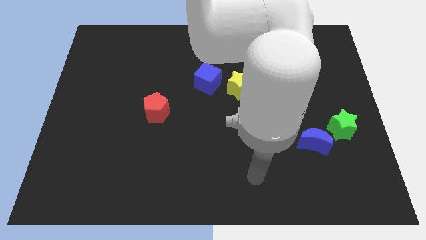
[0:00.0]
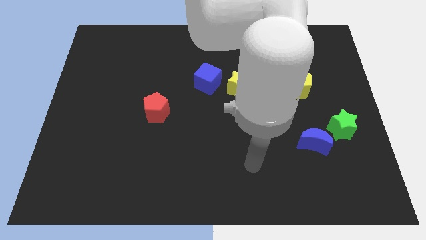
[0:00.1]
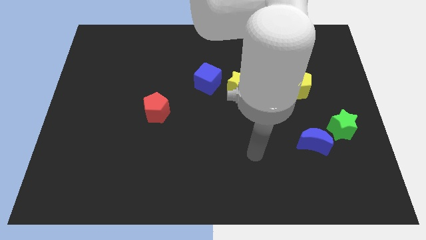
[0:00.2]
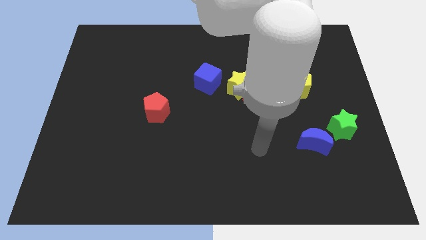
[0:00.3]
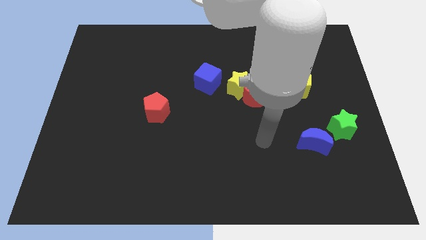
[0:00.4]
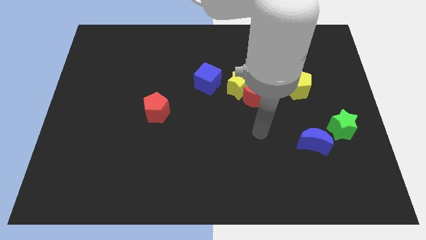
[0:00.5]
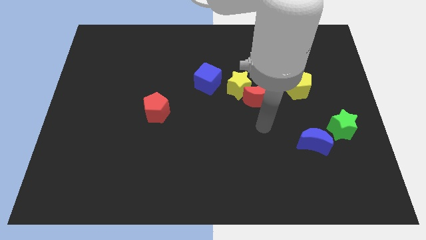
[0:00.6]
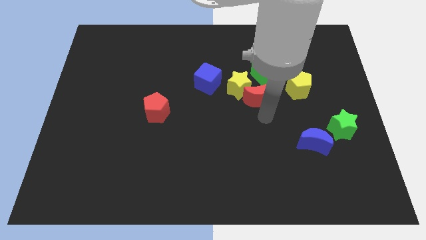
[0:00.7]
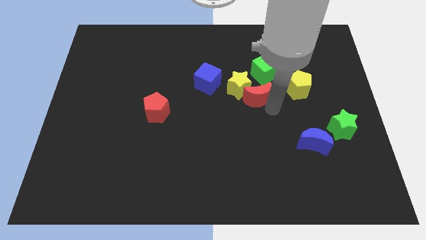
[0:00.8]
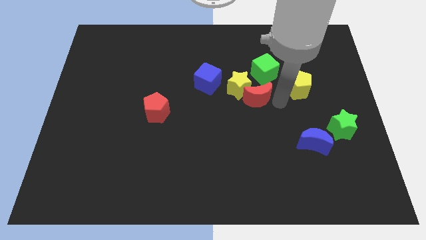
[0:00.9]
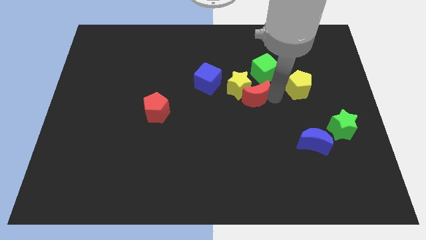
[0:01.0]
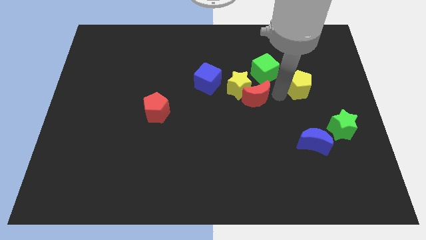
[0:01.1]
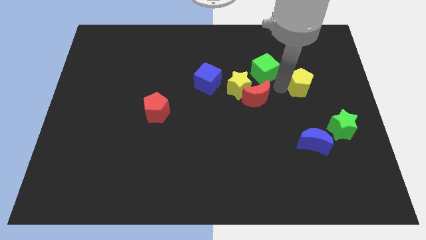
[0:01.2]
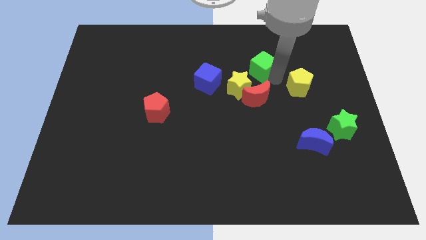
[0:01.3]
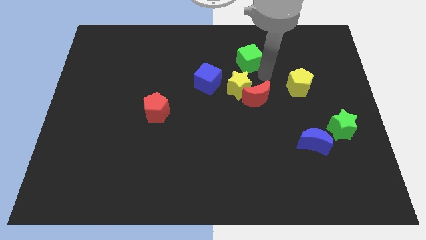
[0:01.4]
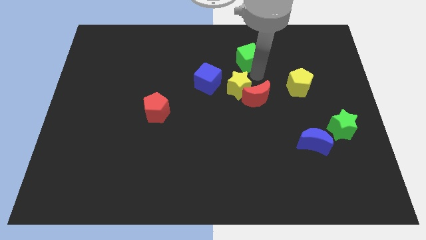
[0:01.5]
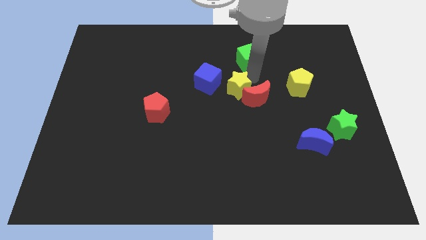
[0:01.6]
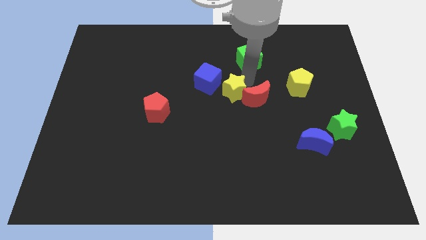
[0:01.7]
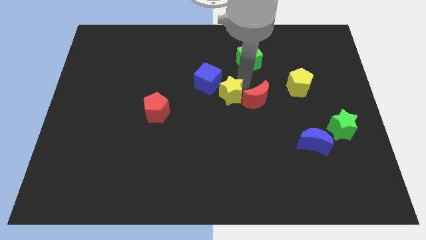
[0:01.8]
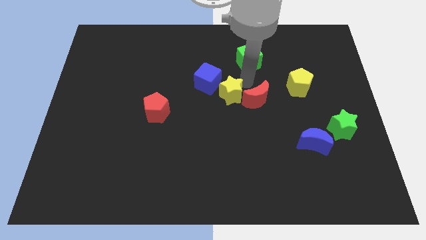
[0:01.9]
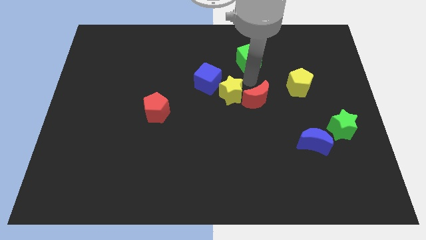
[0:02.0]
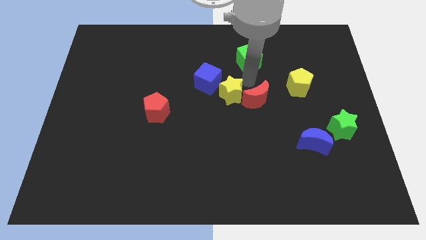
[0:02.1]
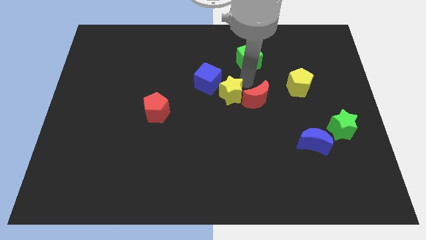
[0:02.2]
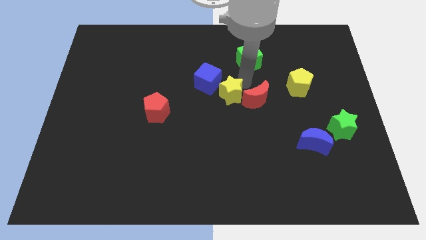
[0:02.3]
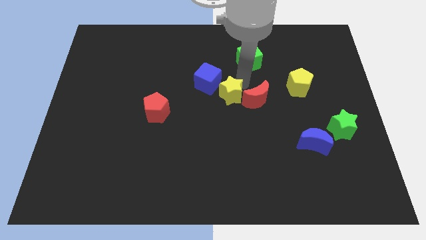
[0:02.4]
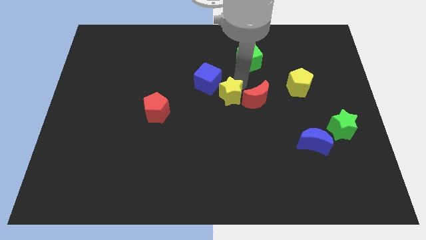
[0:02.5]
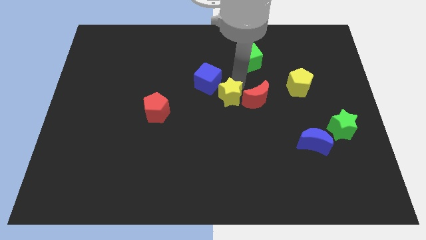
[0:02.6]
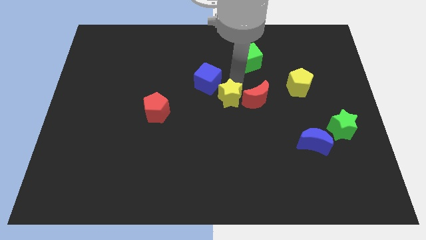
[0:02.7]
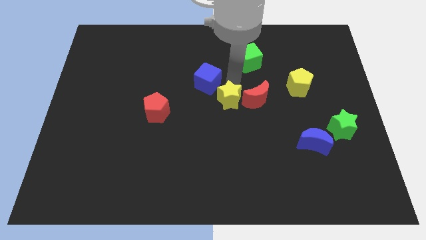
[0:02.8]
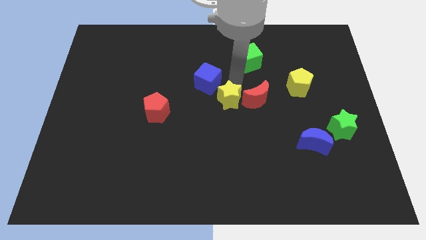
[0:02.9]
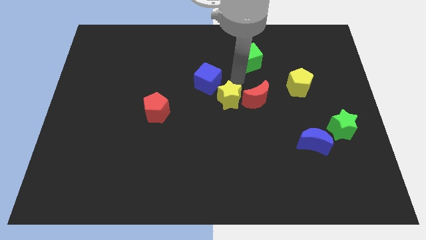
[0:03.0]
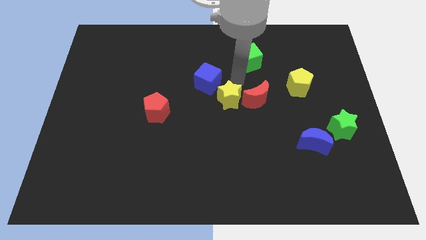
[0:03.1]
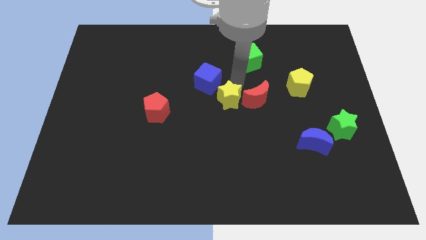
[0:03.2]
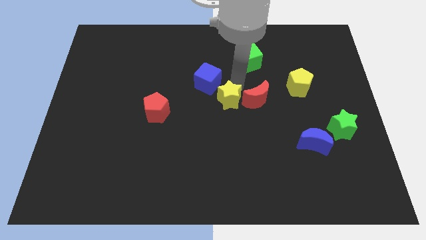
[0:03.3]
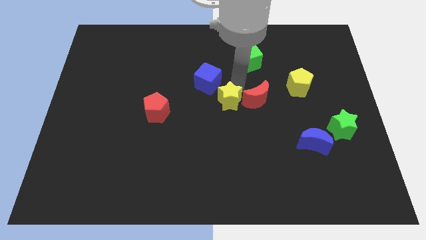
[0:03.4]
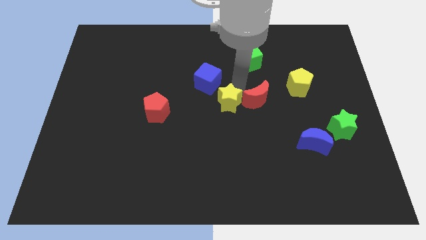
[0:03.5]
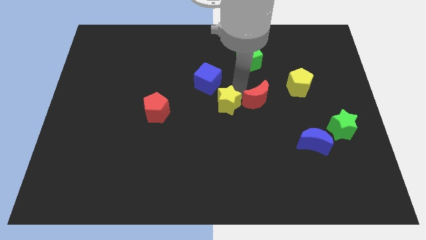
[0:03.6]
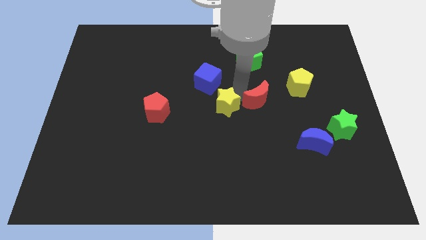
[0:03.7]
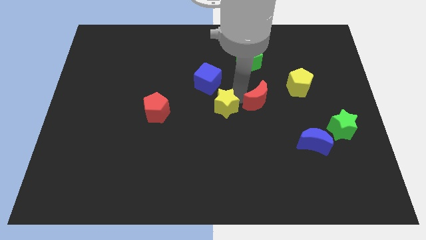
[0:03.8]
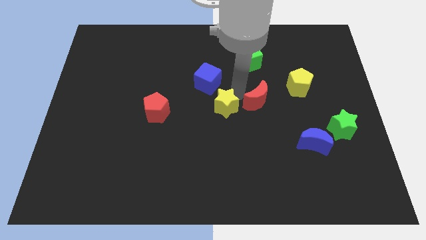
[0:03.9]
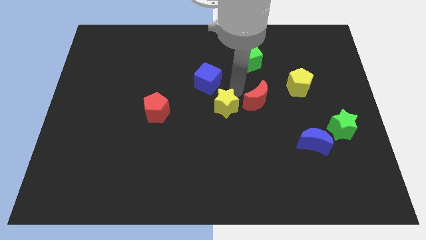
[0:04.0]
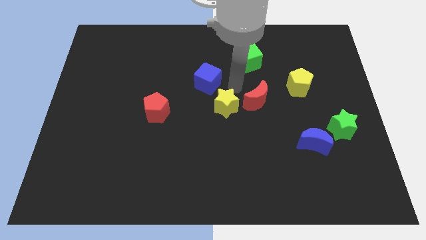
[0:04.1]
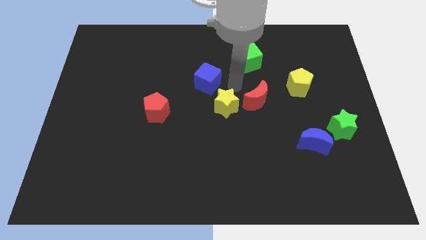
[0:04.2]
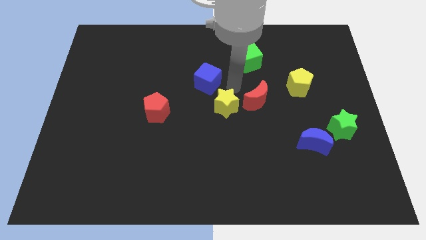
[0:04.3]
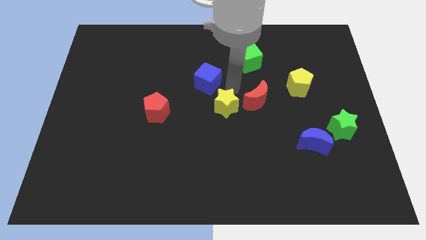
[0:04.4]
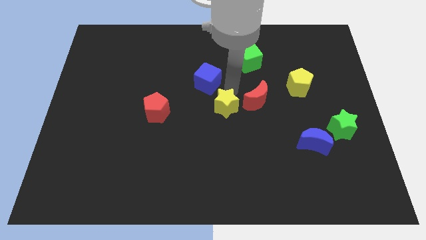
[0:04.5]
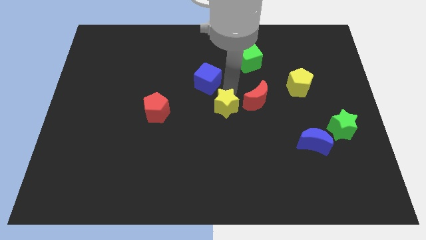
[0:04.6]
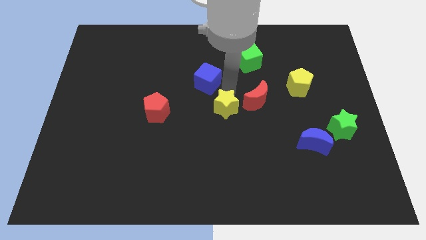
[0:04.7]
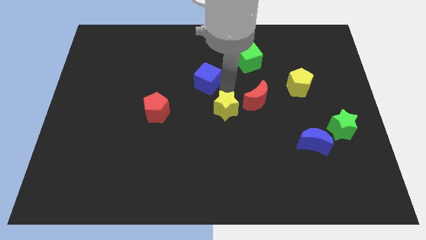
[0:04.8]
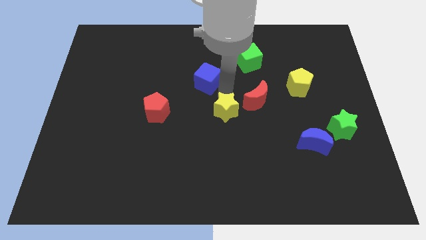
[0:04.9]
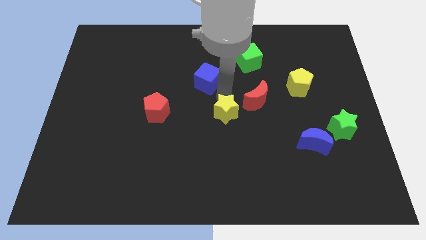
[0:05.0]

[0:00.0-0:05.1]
separate the yellow star from the red moon, blue cube, and green cube

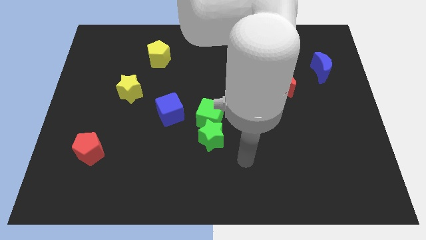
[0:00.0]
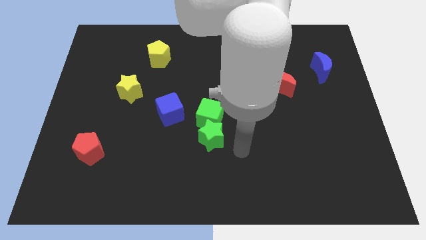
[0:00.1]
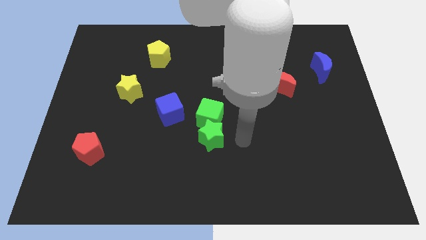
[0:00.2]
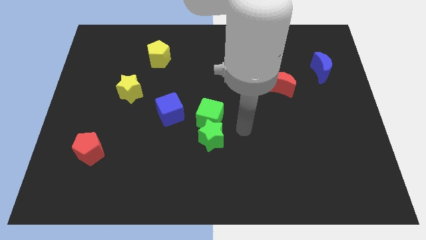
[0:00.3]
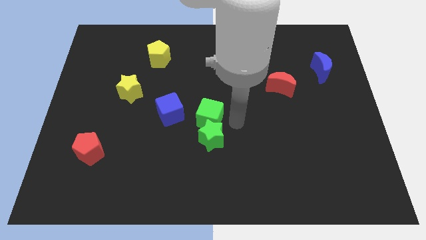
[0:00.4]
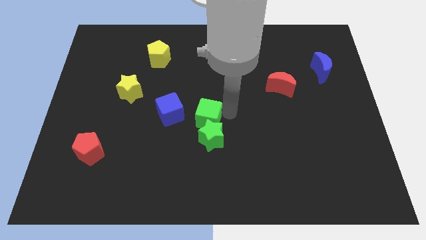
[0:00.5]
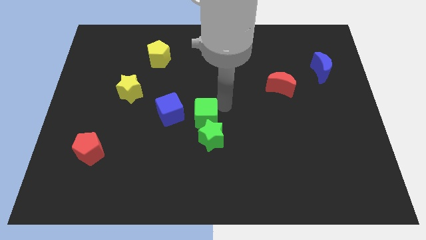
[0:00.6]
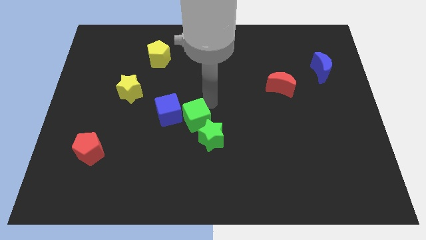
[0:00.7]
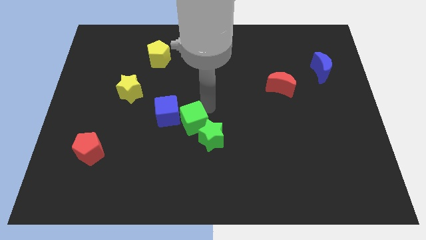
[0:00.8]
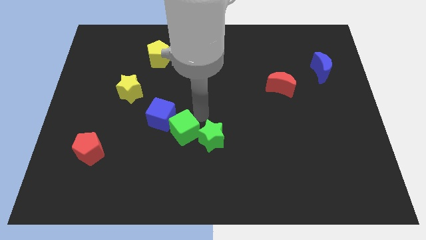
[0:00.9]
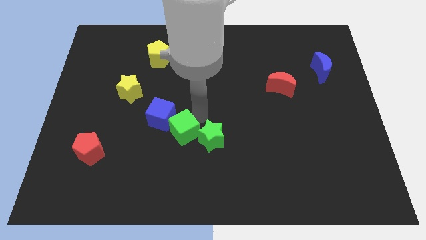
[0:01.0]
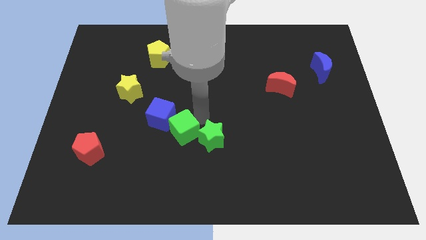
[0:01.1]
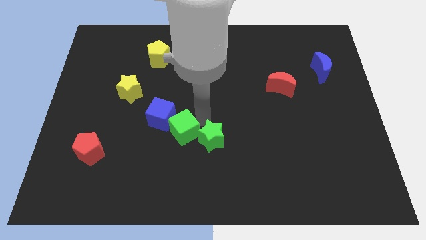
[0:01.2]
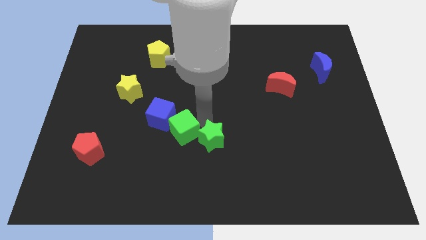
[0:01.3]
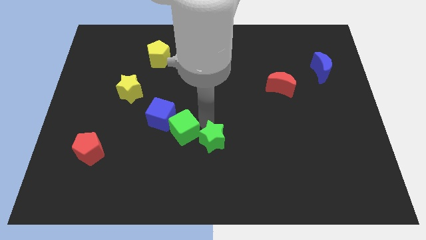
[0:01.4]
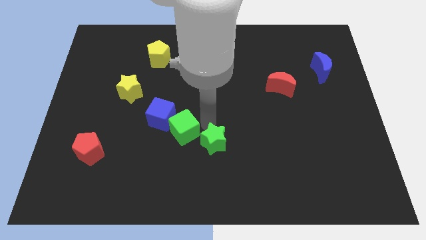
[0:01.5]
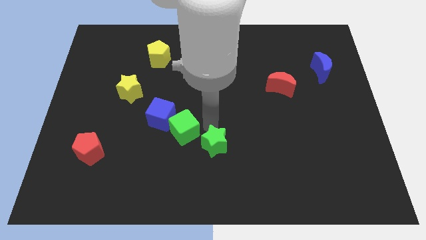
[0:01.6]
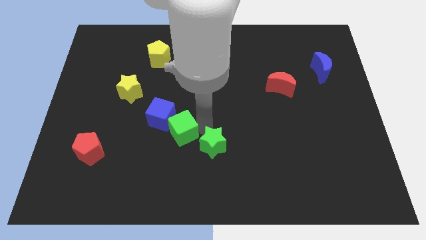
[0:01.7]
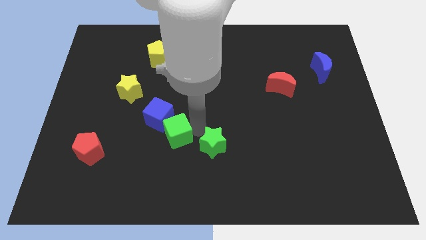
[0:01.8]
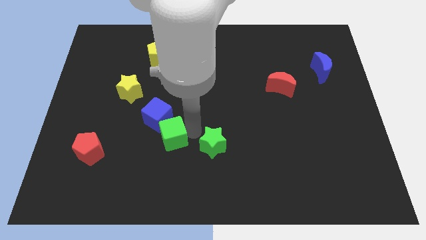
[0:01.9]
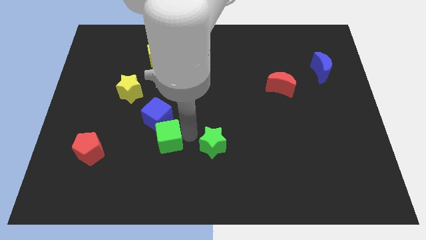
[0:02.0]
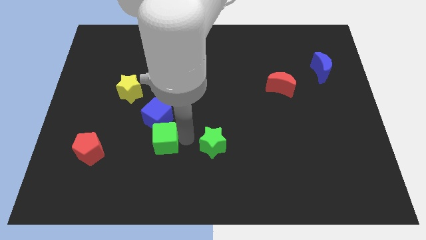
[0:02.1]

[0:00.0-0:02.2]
move the green star away from the green cube

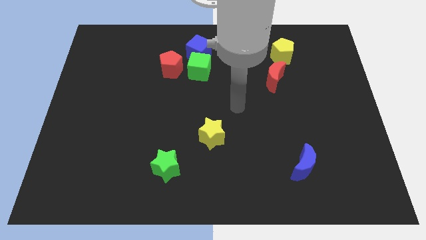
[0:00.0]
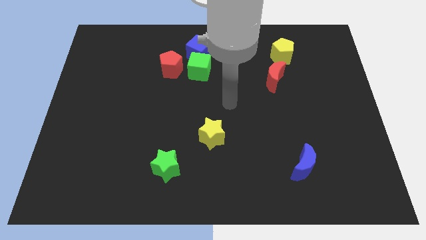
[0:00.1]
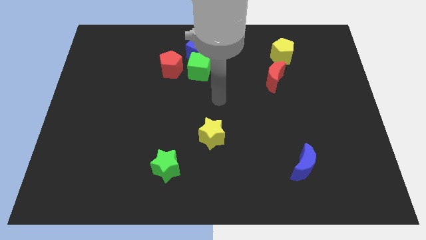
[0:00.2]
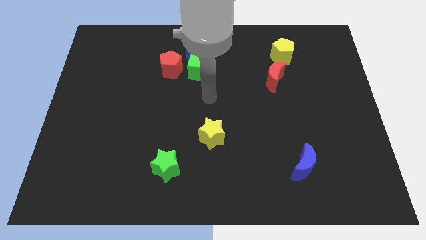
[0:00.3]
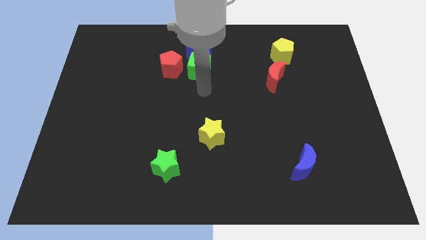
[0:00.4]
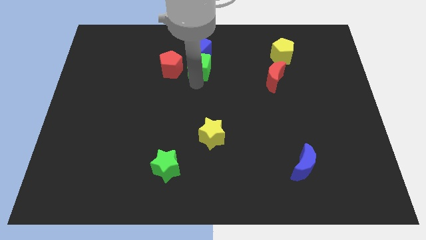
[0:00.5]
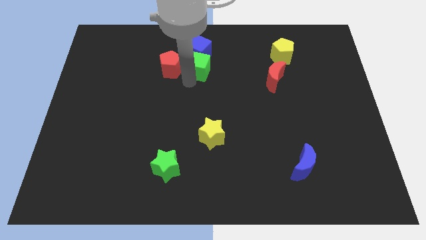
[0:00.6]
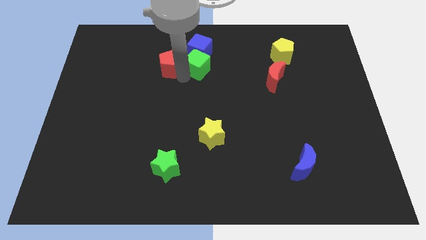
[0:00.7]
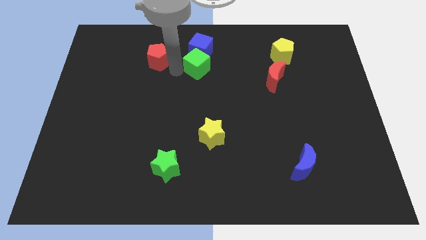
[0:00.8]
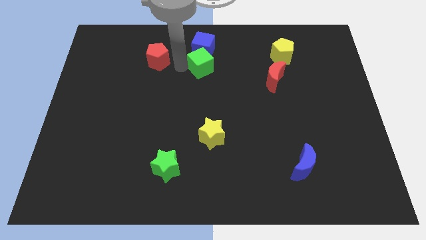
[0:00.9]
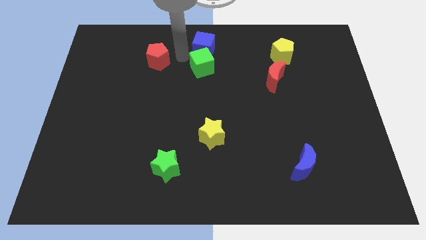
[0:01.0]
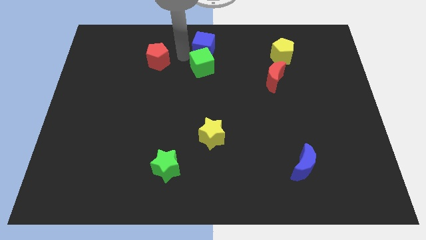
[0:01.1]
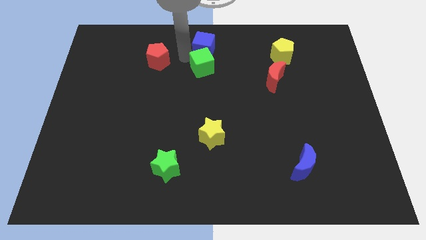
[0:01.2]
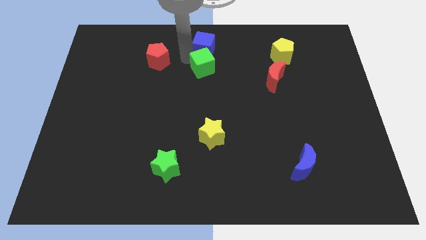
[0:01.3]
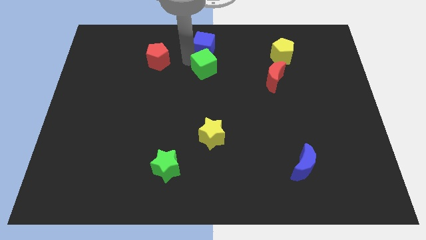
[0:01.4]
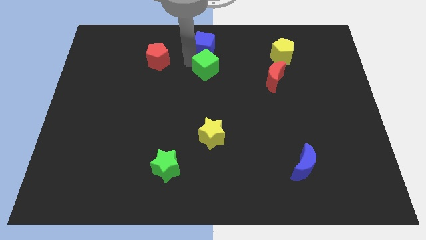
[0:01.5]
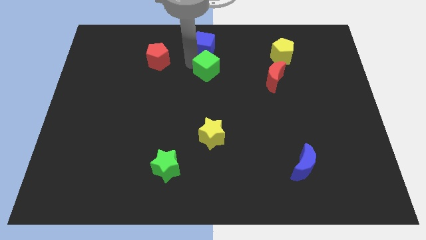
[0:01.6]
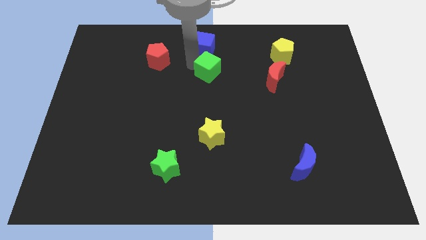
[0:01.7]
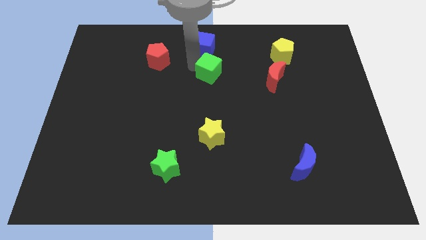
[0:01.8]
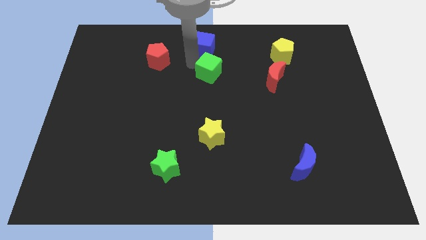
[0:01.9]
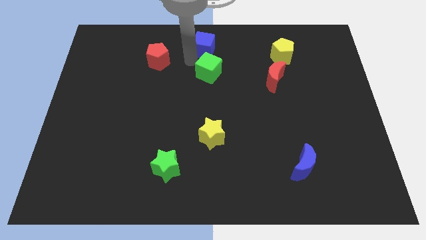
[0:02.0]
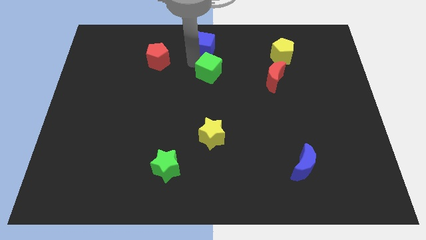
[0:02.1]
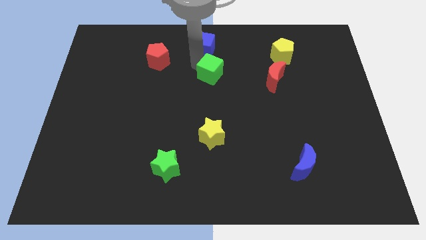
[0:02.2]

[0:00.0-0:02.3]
pull the green cube apart from the blue cube and red pentagon
